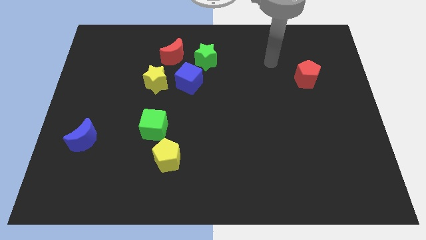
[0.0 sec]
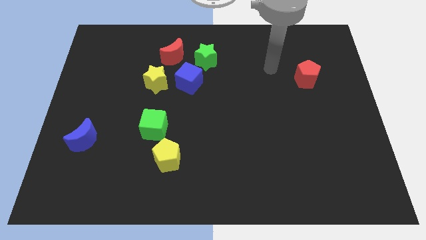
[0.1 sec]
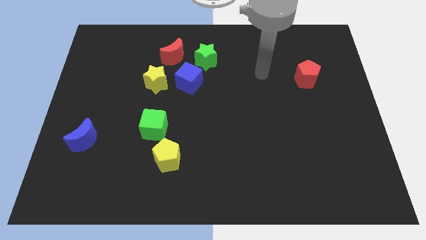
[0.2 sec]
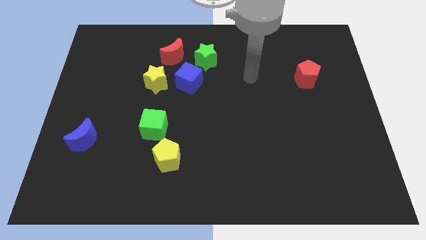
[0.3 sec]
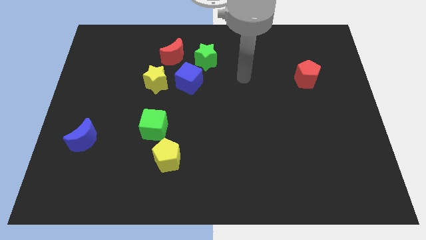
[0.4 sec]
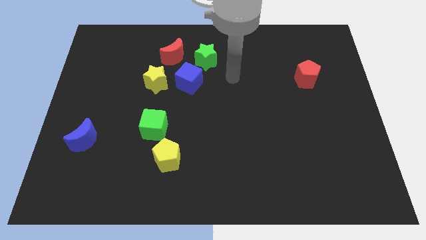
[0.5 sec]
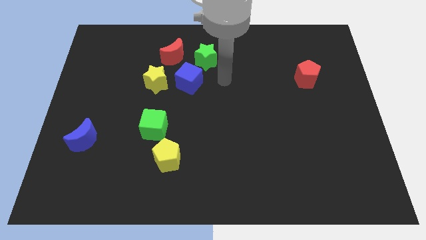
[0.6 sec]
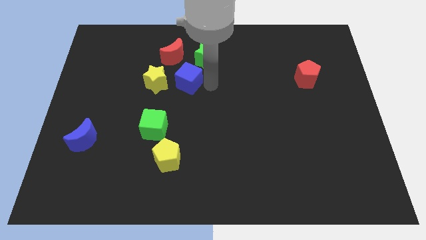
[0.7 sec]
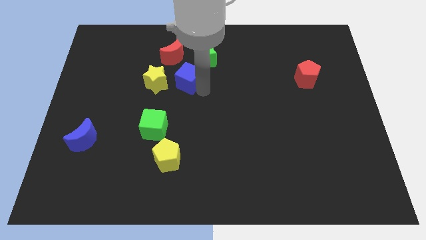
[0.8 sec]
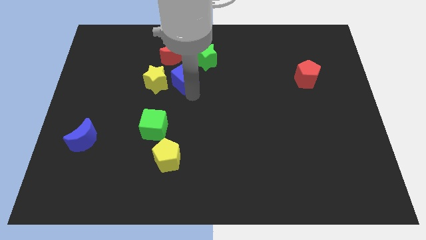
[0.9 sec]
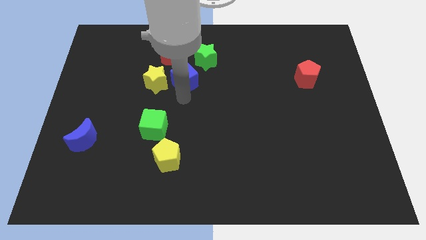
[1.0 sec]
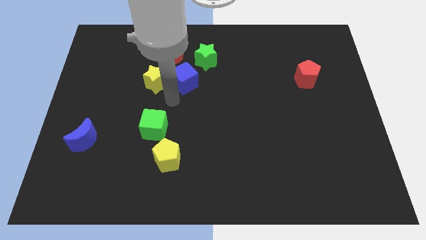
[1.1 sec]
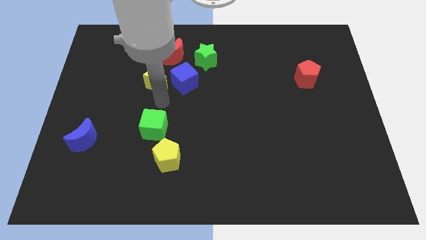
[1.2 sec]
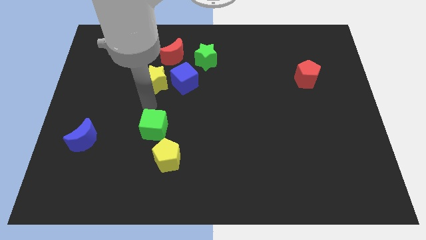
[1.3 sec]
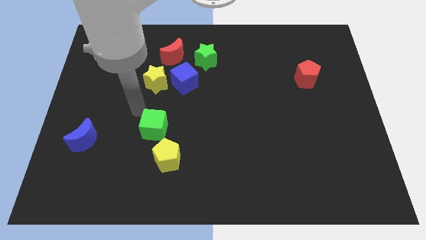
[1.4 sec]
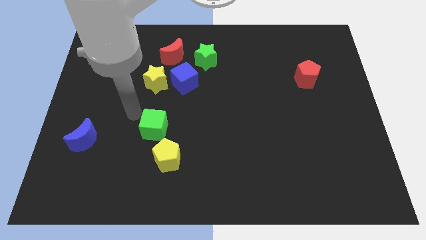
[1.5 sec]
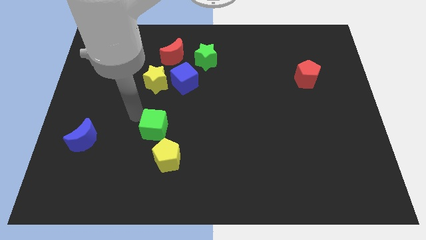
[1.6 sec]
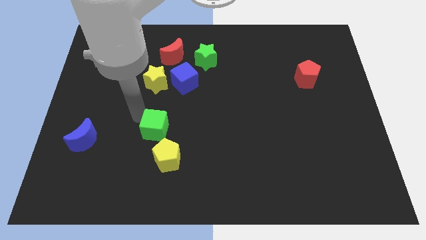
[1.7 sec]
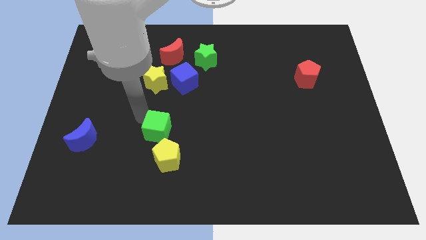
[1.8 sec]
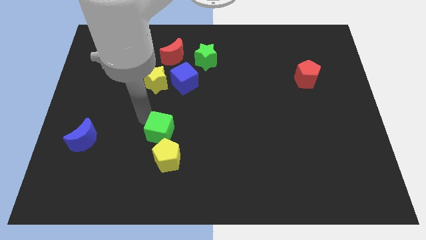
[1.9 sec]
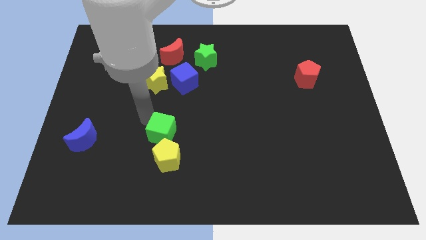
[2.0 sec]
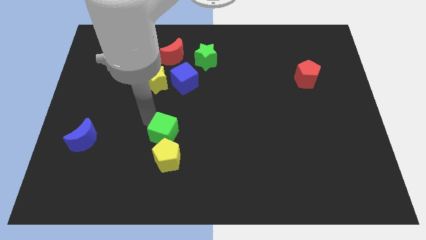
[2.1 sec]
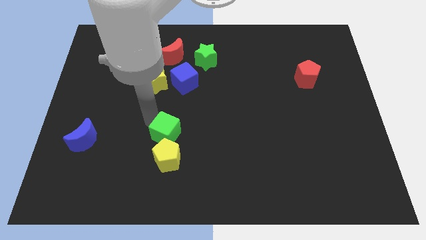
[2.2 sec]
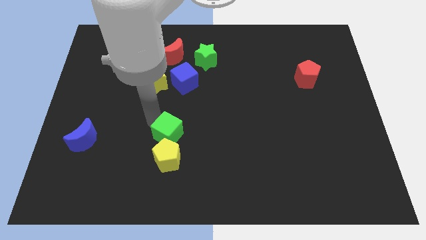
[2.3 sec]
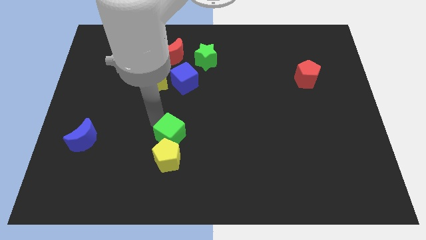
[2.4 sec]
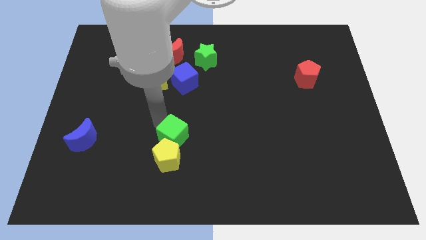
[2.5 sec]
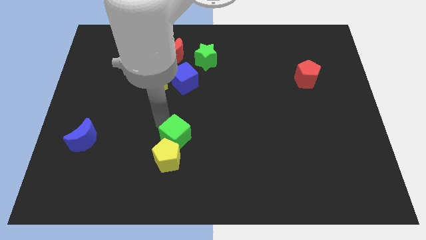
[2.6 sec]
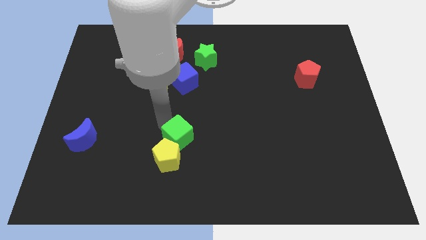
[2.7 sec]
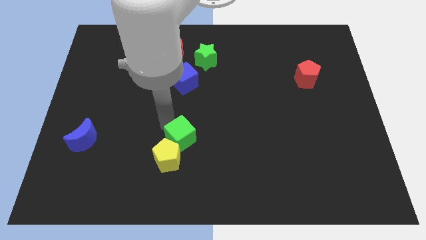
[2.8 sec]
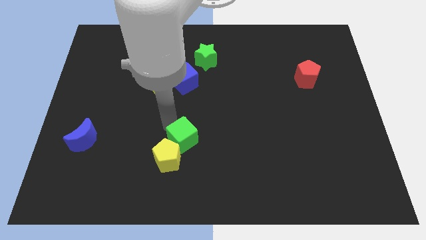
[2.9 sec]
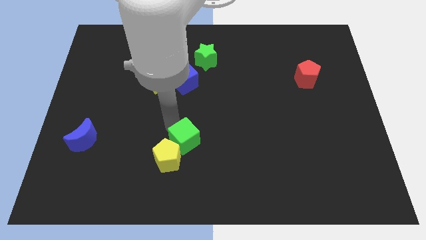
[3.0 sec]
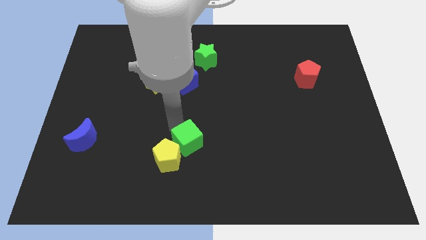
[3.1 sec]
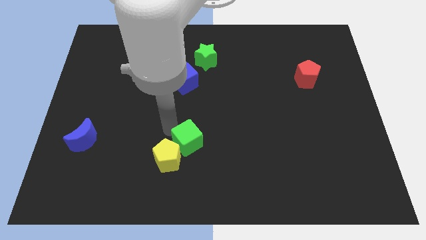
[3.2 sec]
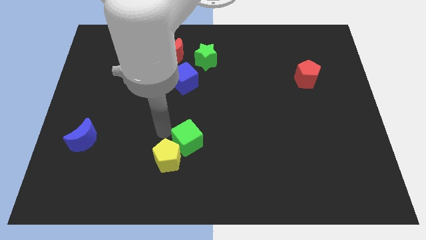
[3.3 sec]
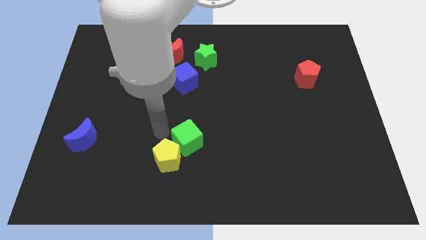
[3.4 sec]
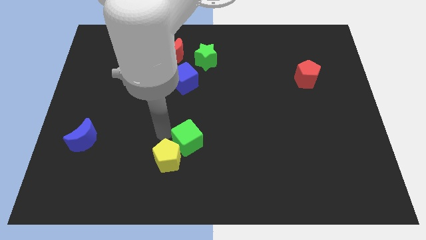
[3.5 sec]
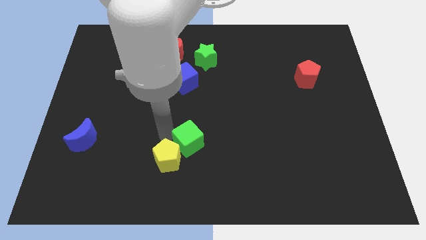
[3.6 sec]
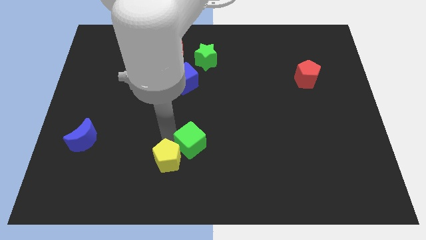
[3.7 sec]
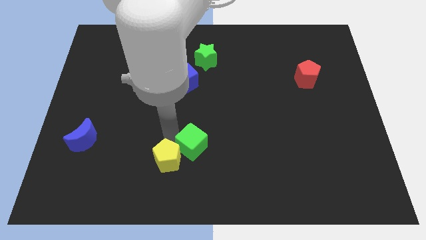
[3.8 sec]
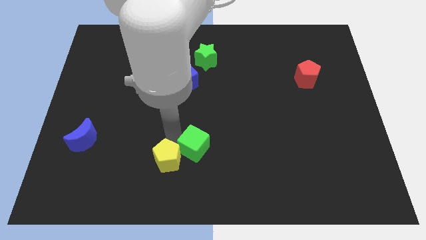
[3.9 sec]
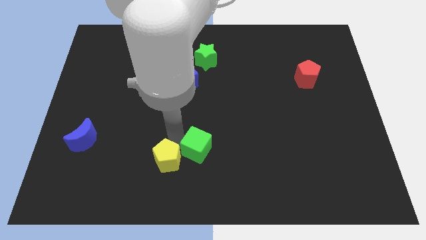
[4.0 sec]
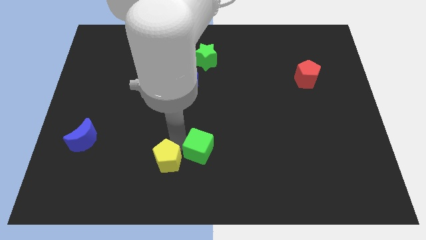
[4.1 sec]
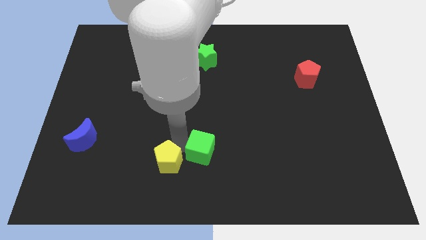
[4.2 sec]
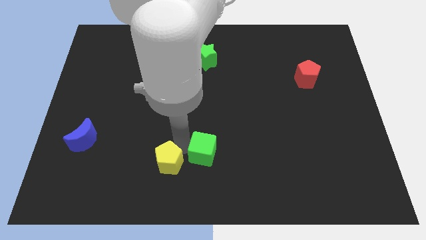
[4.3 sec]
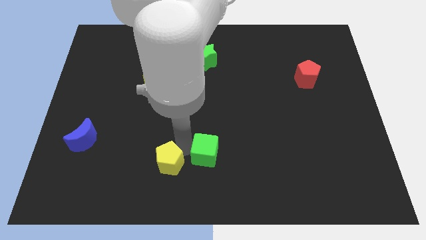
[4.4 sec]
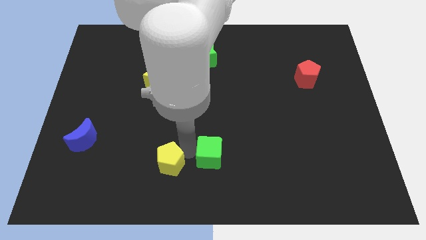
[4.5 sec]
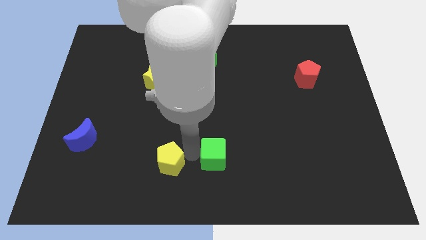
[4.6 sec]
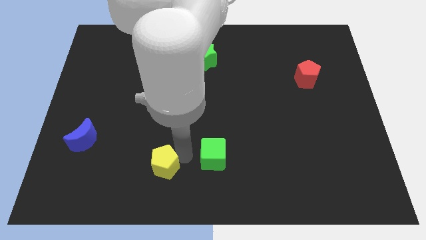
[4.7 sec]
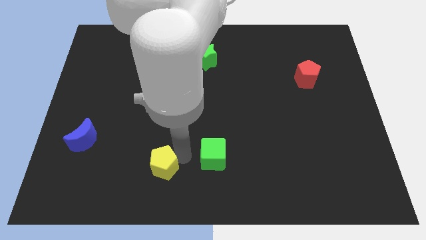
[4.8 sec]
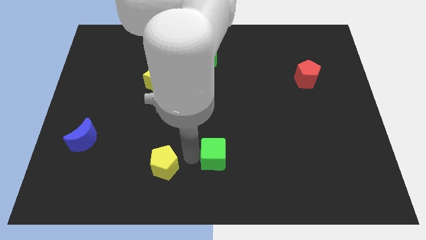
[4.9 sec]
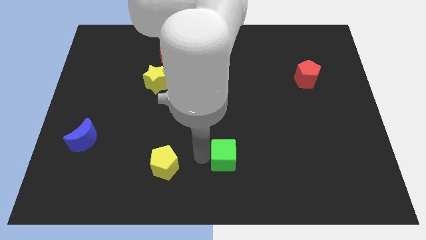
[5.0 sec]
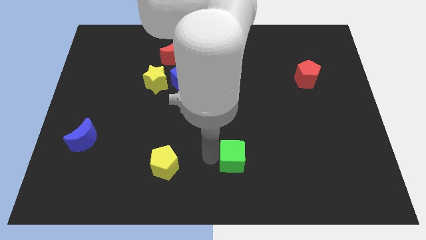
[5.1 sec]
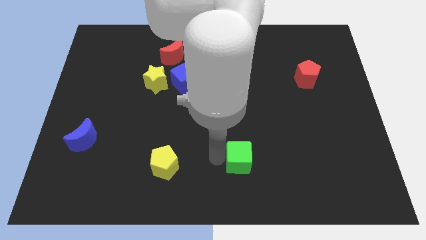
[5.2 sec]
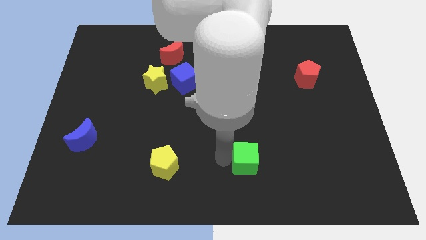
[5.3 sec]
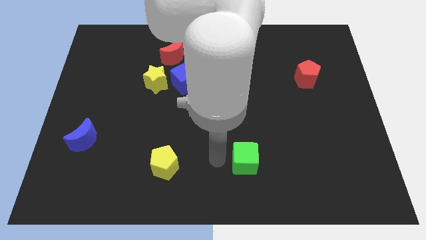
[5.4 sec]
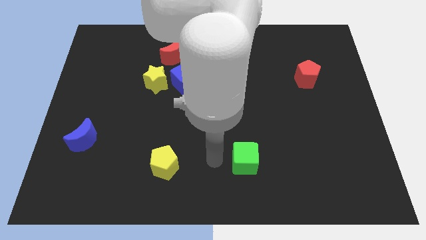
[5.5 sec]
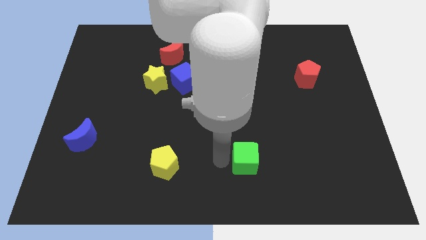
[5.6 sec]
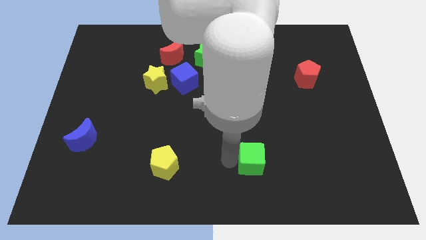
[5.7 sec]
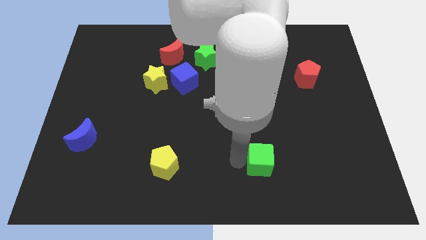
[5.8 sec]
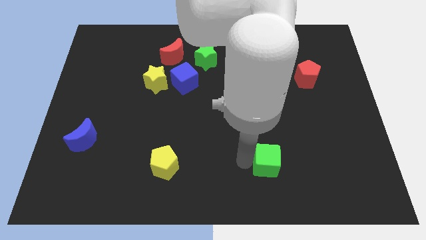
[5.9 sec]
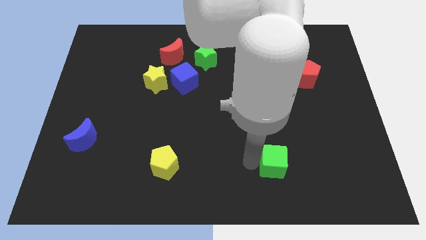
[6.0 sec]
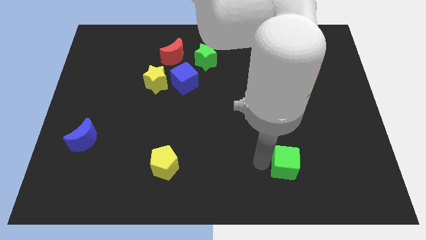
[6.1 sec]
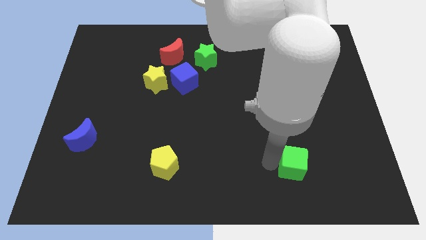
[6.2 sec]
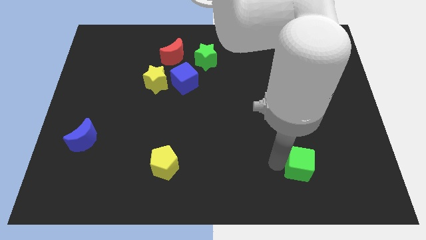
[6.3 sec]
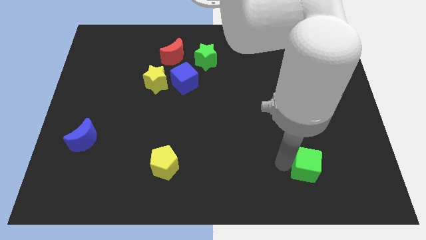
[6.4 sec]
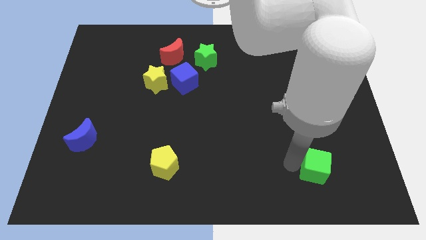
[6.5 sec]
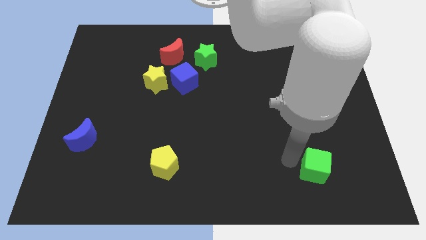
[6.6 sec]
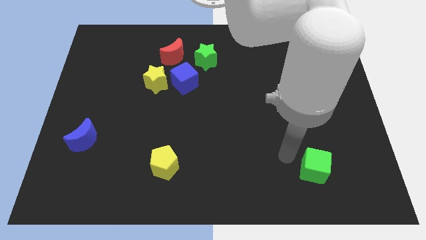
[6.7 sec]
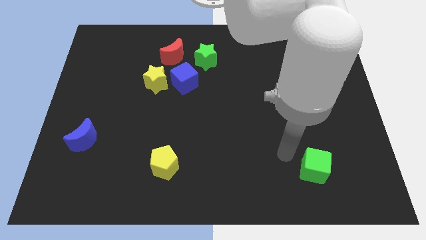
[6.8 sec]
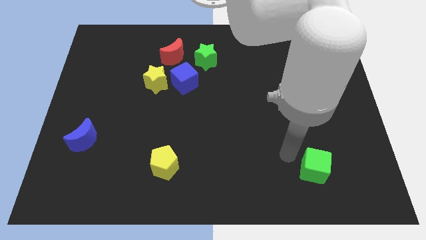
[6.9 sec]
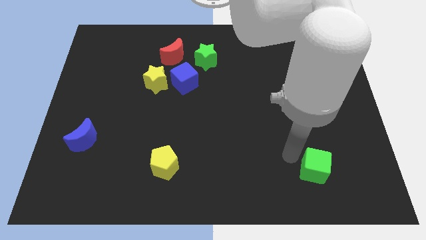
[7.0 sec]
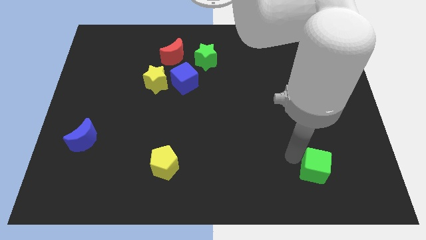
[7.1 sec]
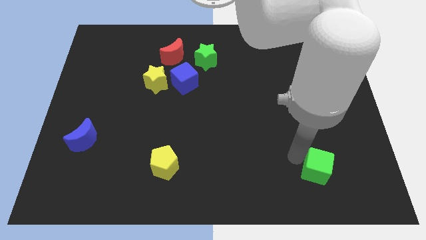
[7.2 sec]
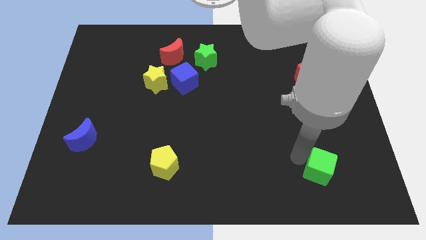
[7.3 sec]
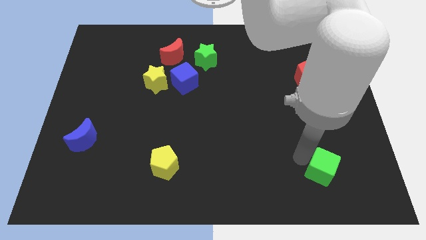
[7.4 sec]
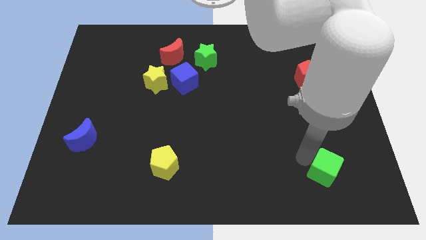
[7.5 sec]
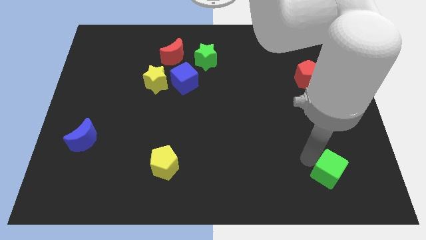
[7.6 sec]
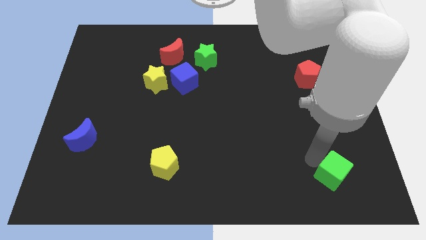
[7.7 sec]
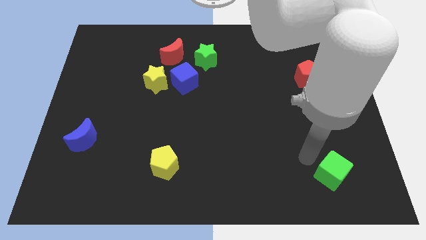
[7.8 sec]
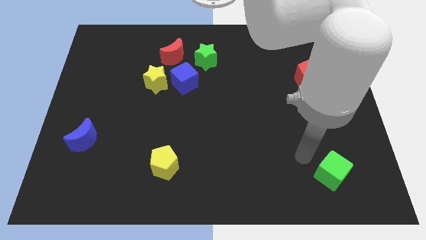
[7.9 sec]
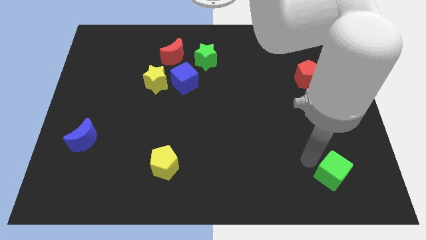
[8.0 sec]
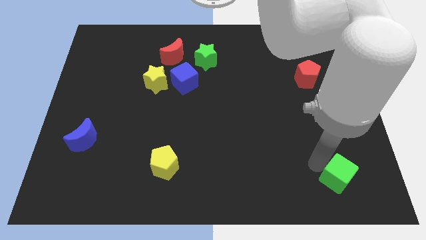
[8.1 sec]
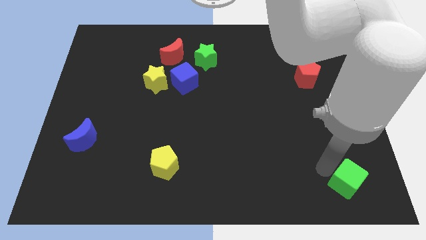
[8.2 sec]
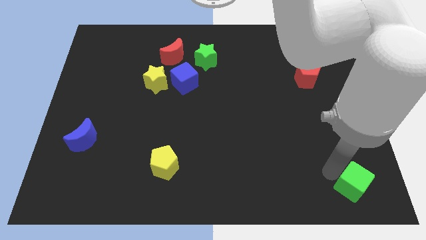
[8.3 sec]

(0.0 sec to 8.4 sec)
push the green cube to the bottom right corner
